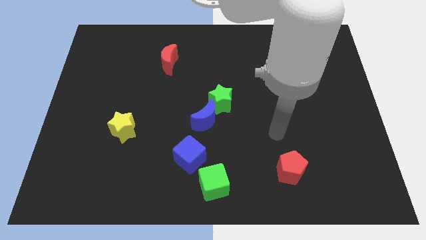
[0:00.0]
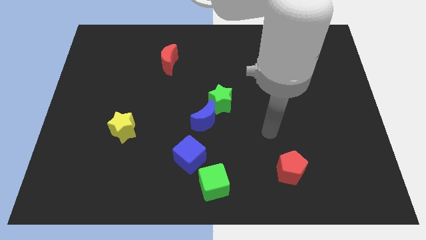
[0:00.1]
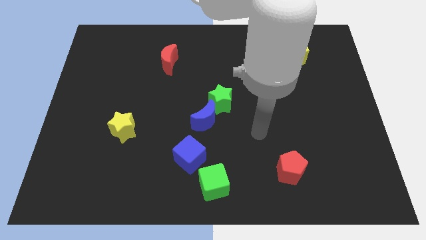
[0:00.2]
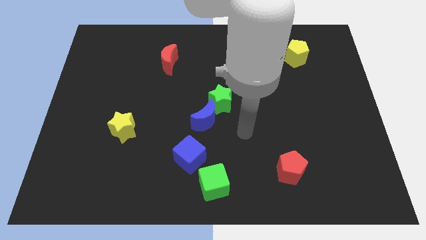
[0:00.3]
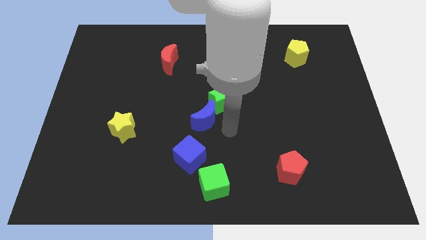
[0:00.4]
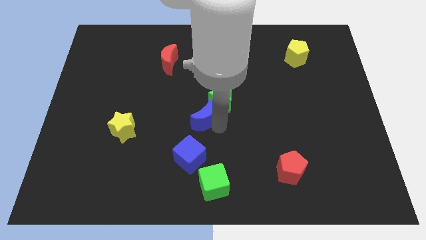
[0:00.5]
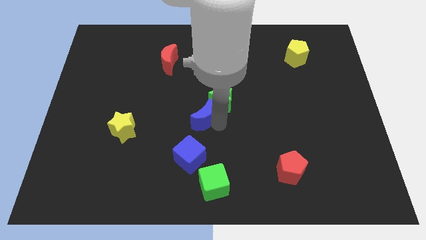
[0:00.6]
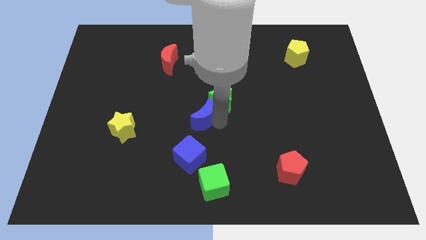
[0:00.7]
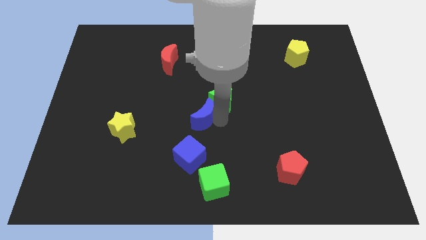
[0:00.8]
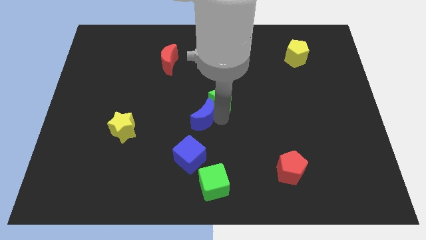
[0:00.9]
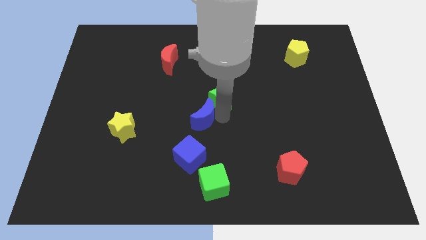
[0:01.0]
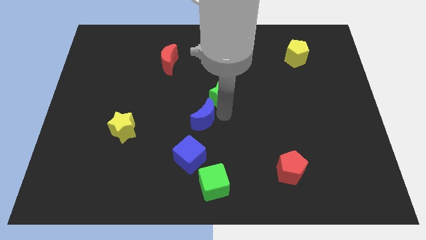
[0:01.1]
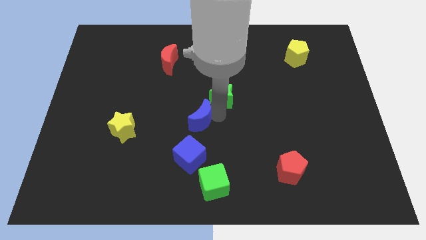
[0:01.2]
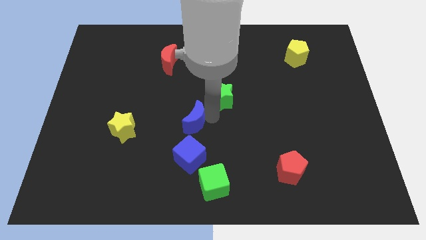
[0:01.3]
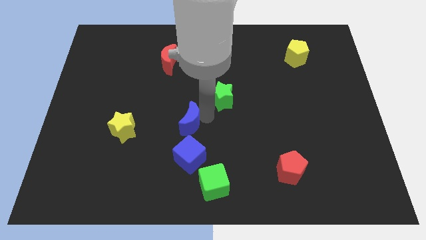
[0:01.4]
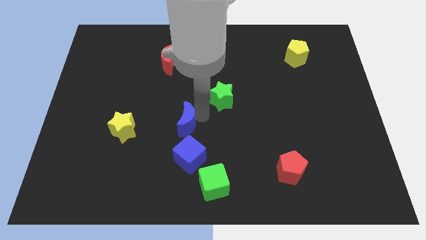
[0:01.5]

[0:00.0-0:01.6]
separate the green star from the blue moon

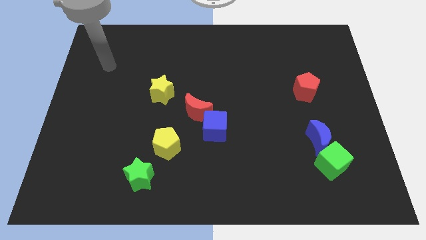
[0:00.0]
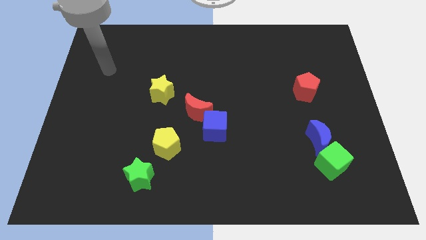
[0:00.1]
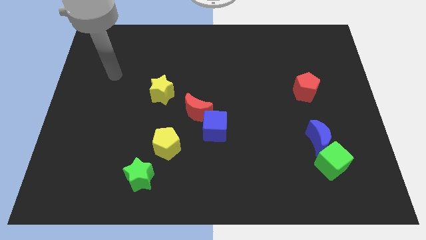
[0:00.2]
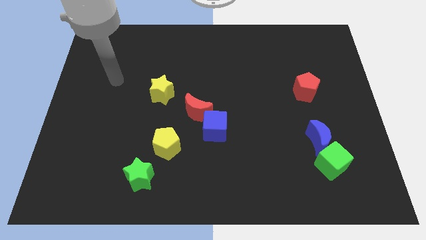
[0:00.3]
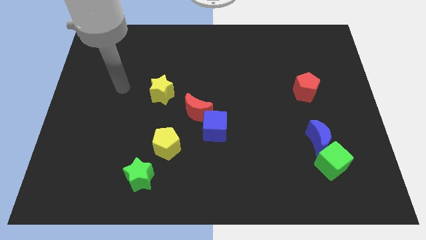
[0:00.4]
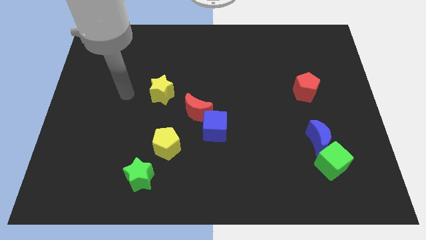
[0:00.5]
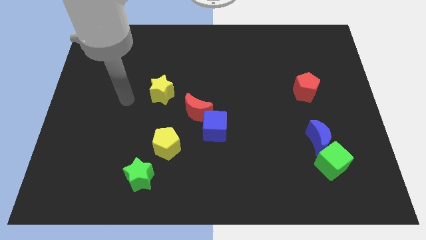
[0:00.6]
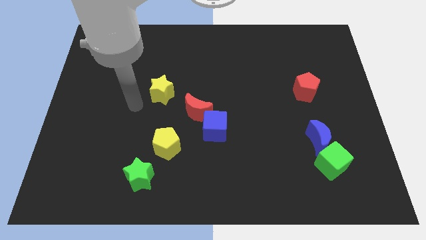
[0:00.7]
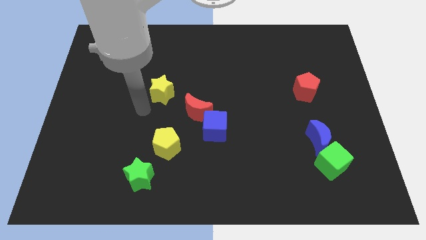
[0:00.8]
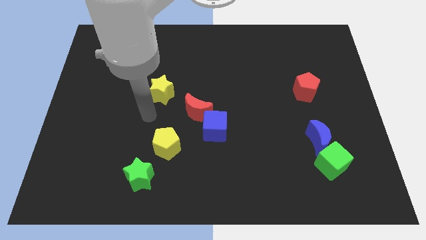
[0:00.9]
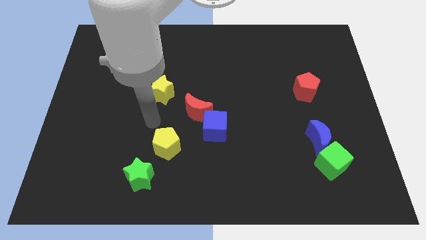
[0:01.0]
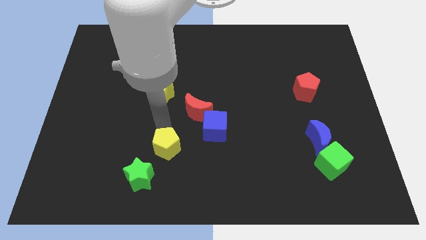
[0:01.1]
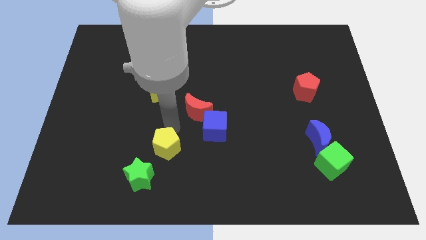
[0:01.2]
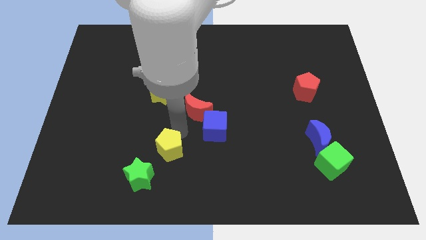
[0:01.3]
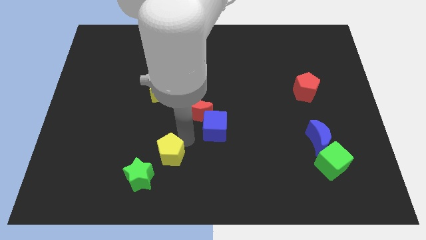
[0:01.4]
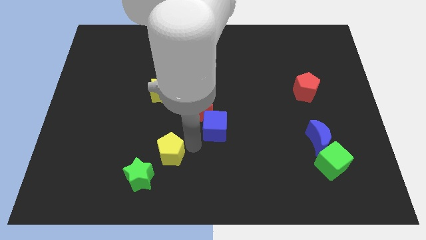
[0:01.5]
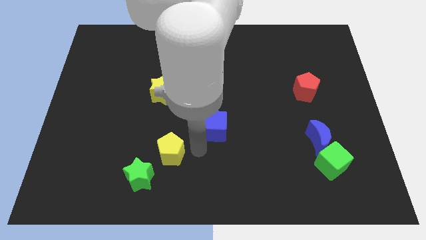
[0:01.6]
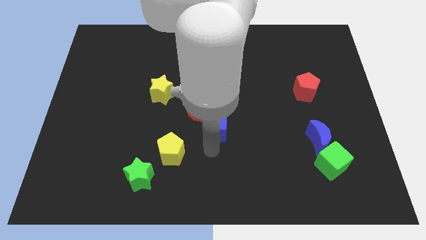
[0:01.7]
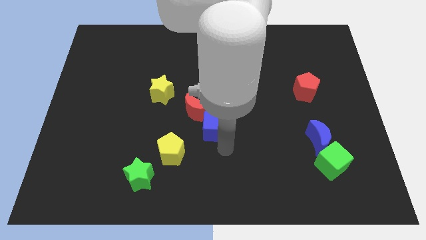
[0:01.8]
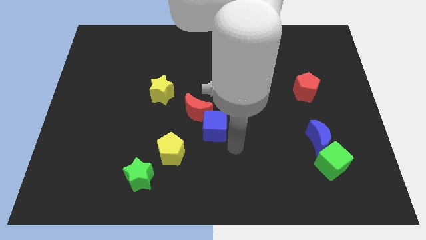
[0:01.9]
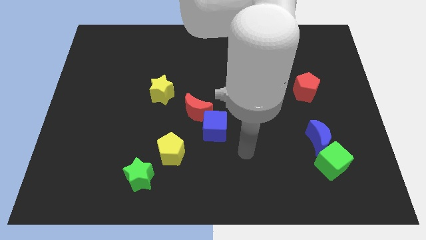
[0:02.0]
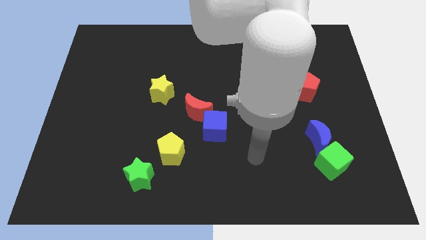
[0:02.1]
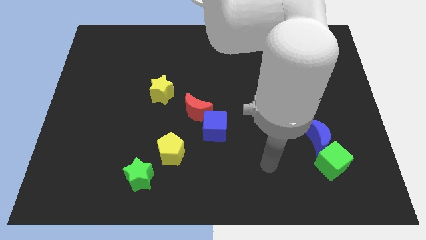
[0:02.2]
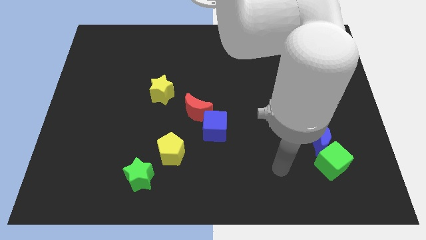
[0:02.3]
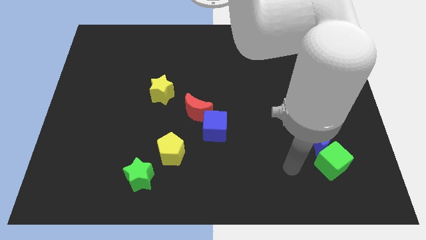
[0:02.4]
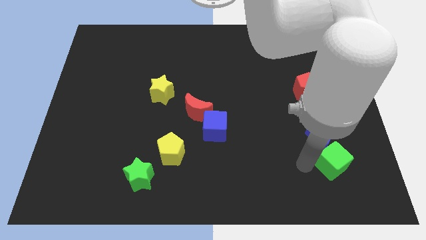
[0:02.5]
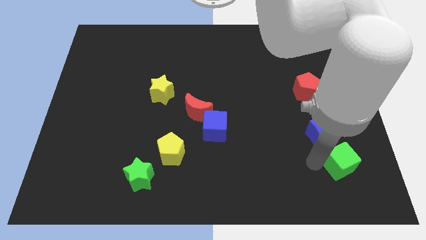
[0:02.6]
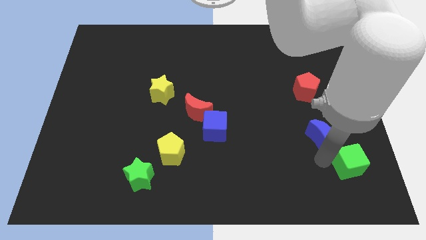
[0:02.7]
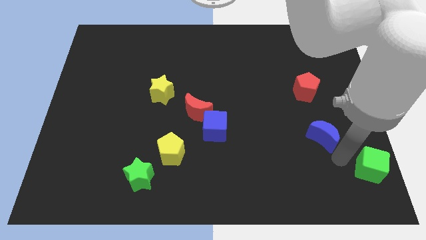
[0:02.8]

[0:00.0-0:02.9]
move the blue moon away from the green cube

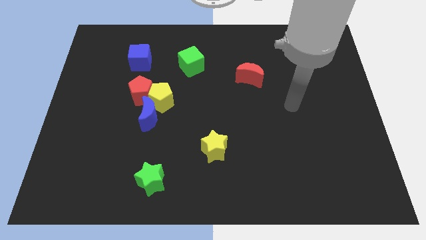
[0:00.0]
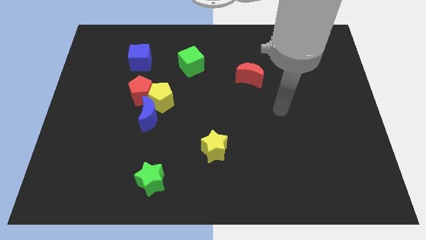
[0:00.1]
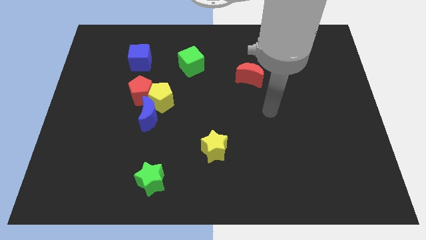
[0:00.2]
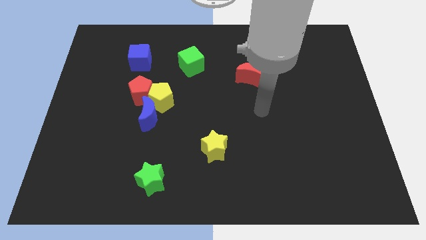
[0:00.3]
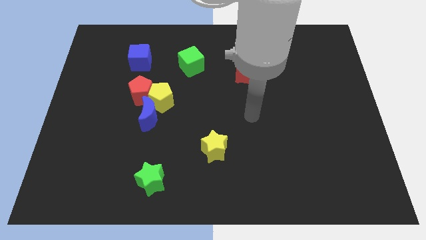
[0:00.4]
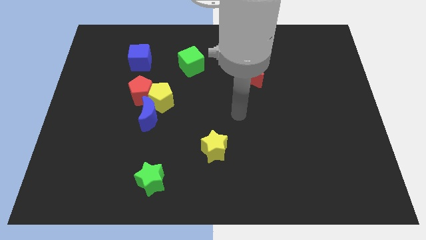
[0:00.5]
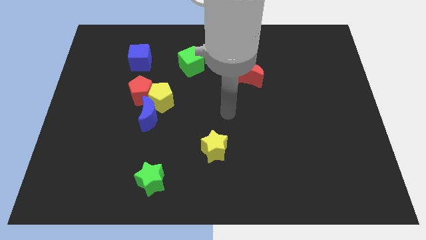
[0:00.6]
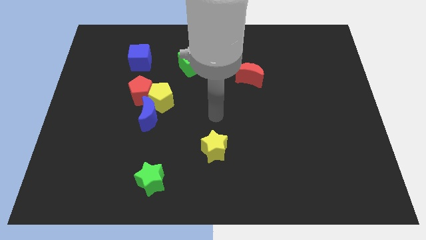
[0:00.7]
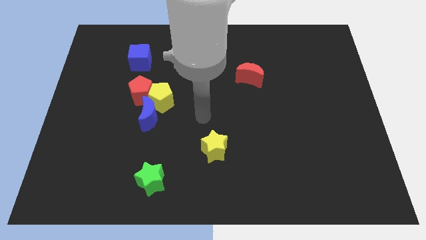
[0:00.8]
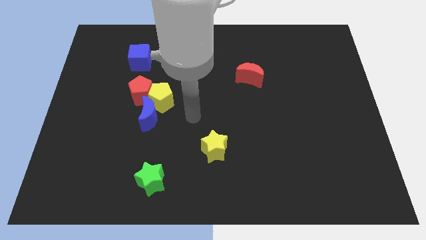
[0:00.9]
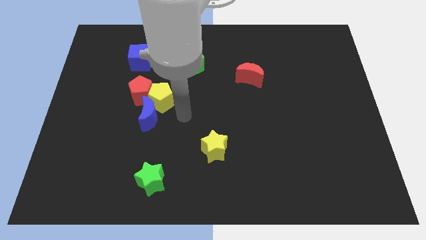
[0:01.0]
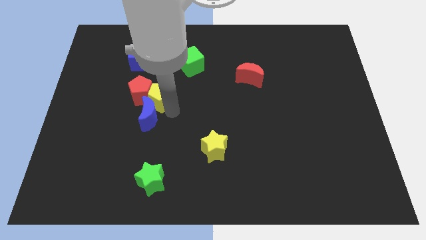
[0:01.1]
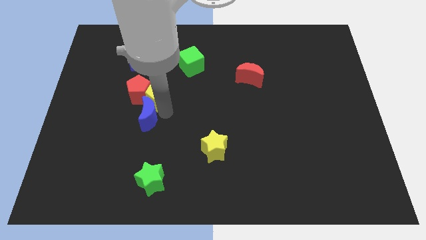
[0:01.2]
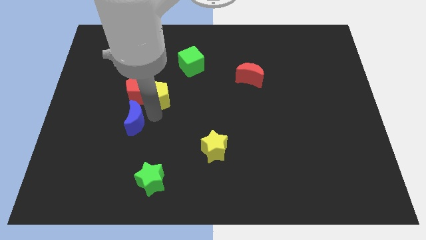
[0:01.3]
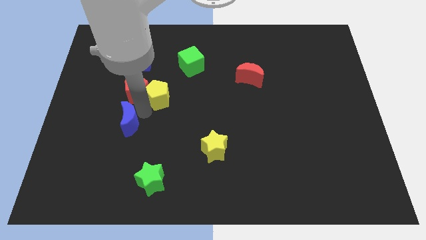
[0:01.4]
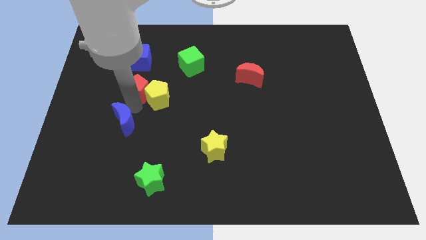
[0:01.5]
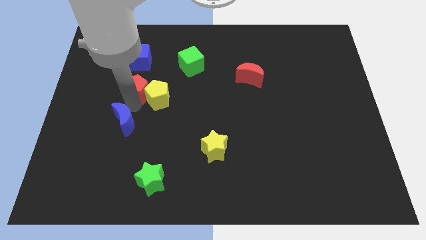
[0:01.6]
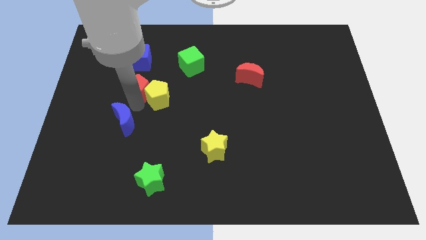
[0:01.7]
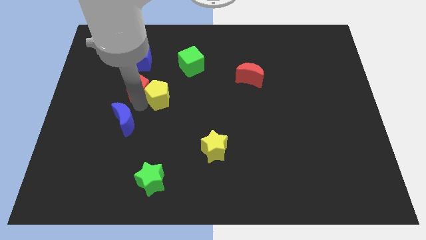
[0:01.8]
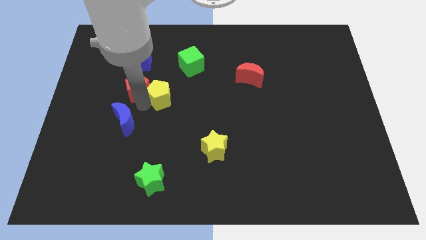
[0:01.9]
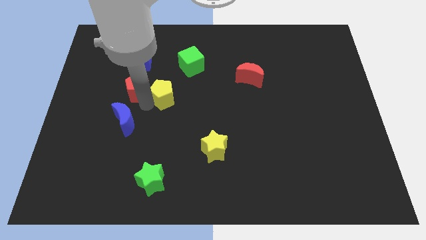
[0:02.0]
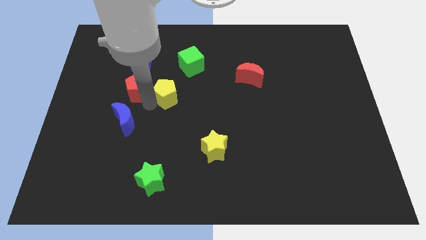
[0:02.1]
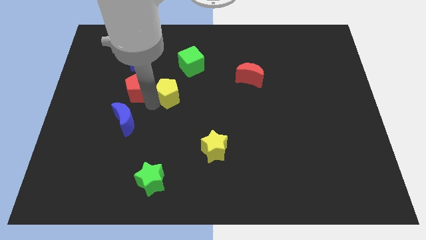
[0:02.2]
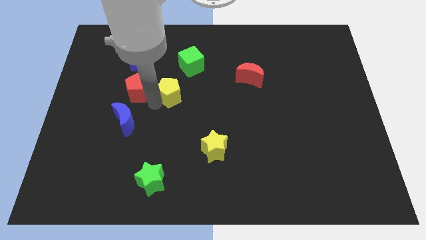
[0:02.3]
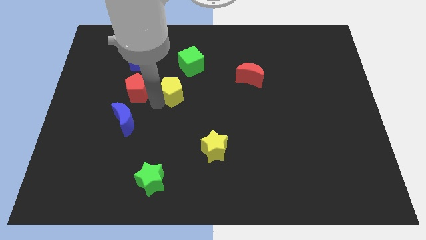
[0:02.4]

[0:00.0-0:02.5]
move the yellow pentagon away from the red pentagon and blue moon

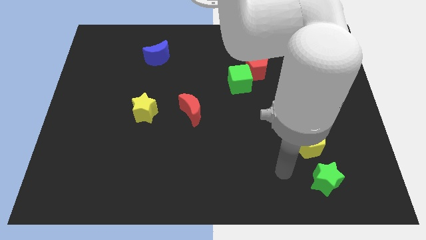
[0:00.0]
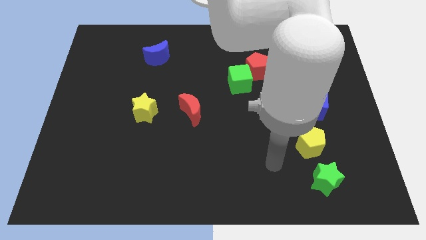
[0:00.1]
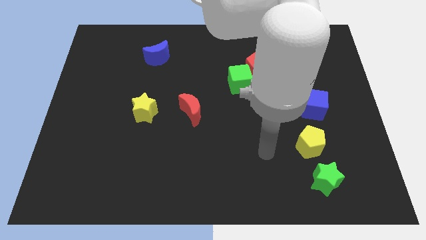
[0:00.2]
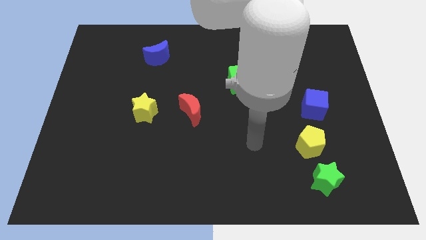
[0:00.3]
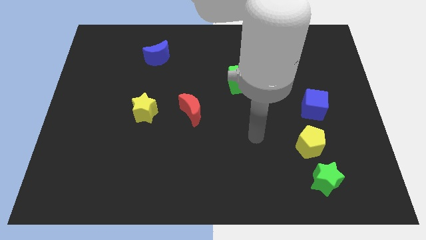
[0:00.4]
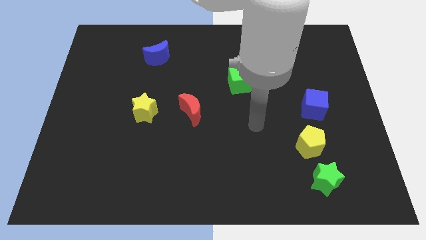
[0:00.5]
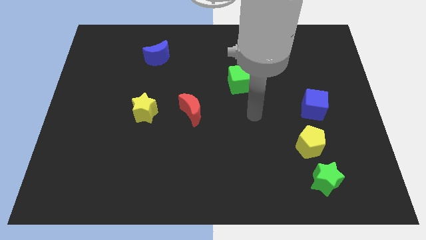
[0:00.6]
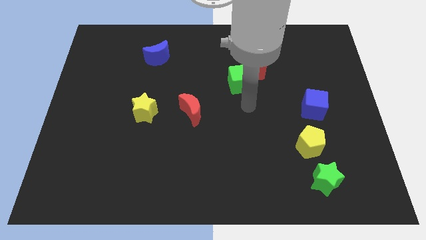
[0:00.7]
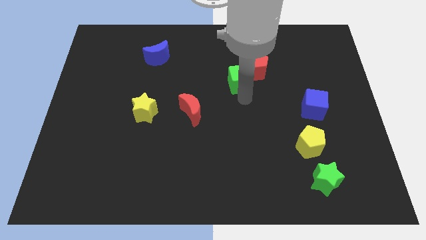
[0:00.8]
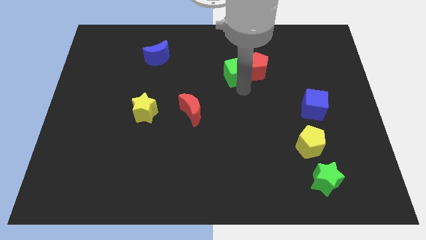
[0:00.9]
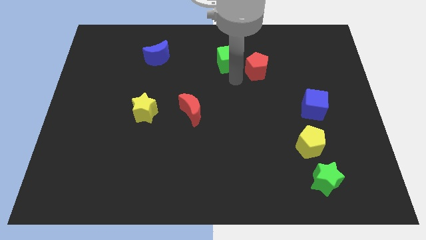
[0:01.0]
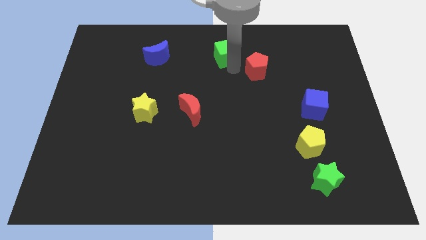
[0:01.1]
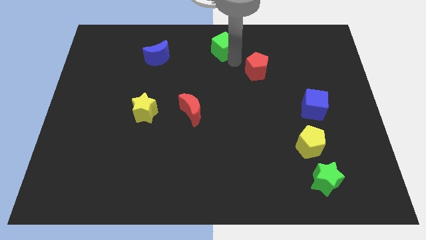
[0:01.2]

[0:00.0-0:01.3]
move the red pentagon away from the green cube

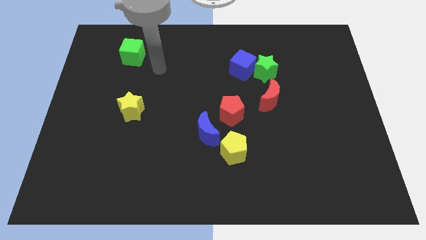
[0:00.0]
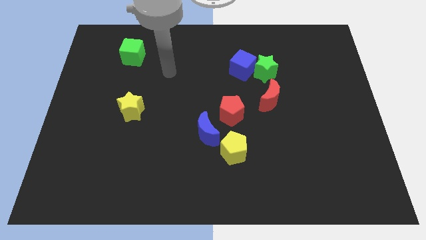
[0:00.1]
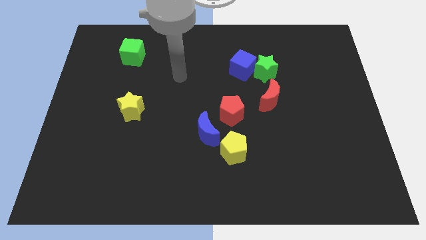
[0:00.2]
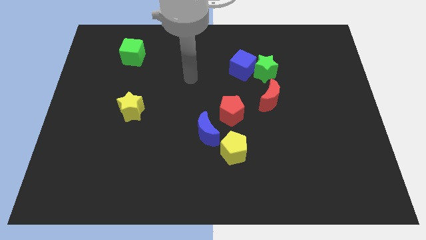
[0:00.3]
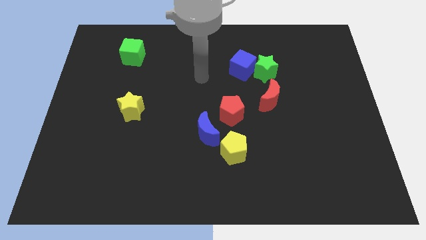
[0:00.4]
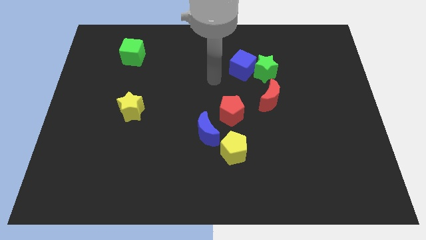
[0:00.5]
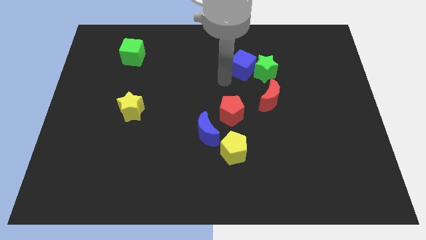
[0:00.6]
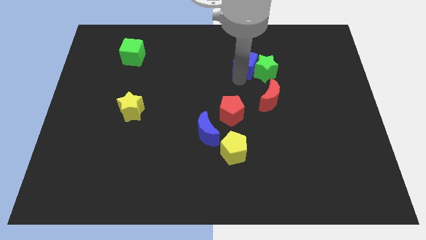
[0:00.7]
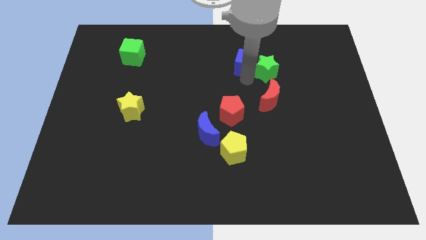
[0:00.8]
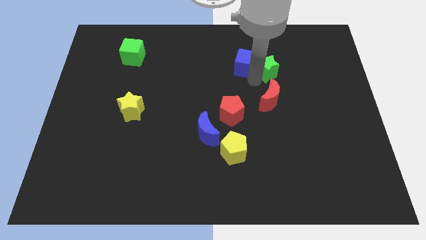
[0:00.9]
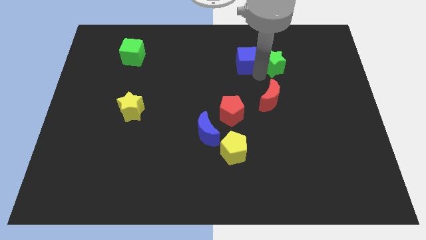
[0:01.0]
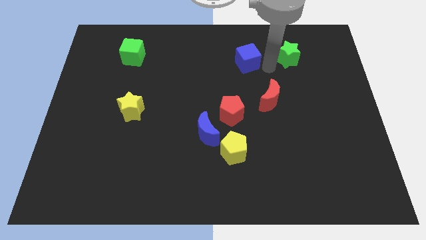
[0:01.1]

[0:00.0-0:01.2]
separate the blue cube from the green star
